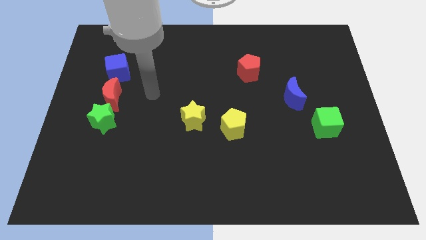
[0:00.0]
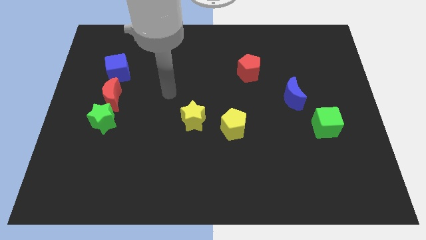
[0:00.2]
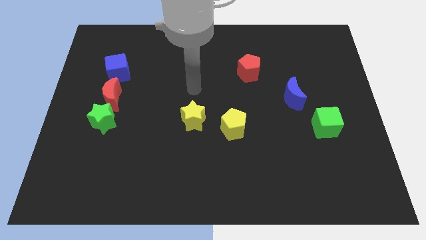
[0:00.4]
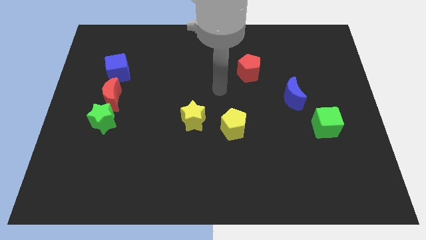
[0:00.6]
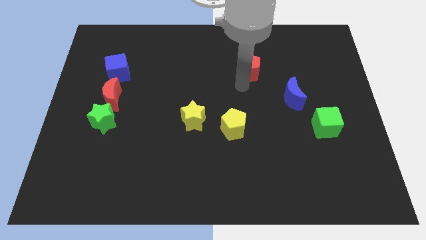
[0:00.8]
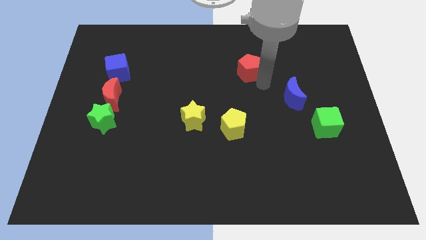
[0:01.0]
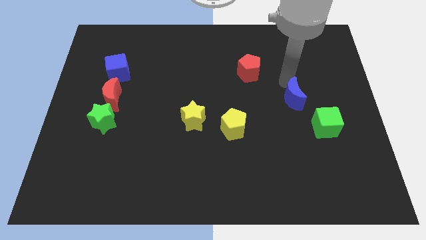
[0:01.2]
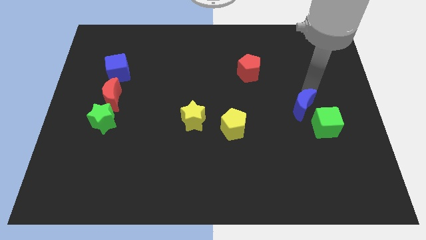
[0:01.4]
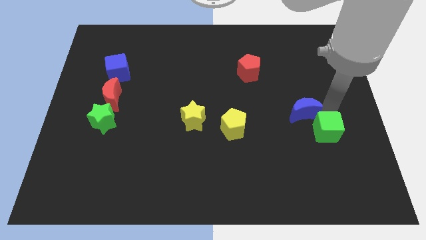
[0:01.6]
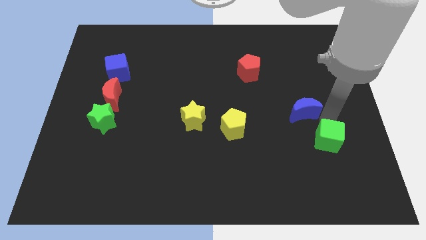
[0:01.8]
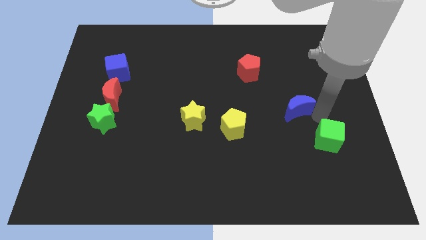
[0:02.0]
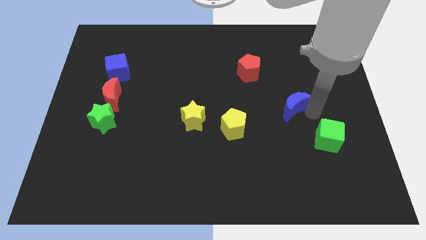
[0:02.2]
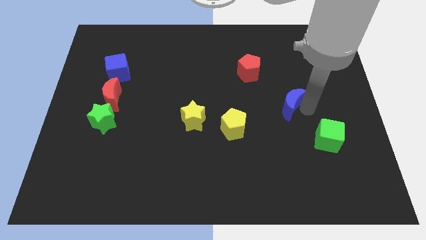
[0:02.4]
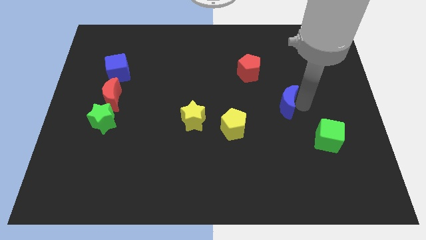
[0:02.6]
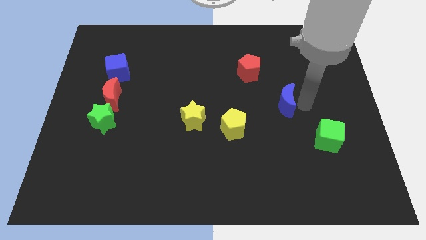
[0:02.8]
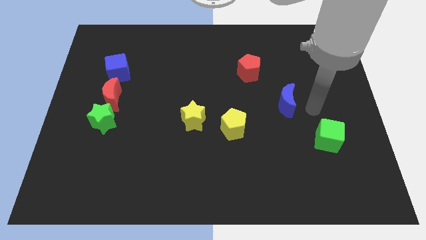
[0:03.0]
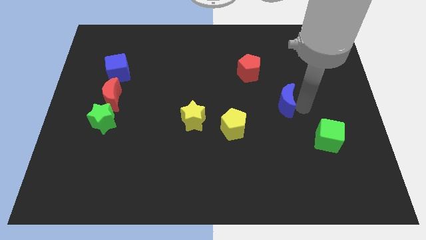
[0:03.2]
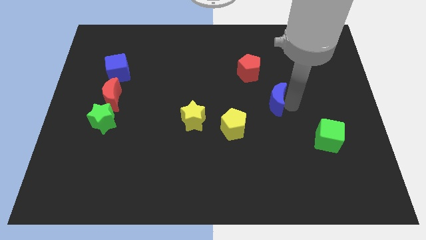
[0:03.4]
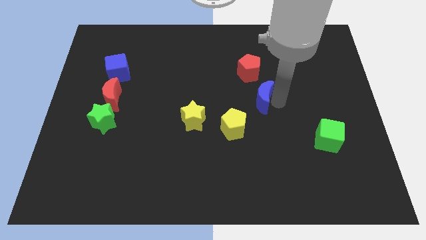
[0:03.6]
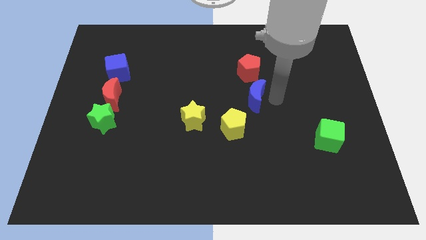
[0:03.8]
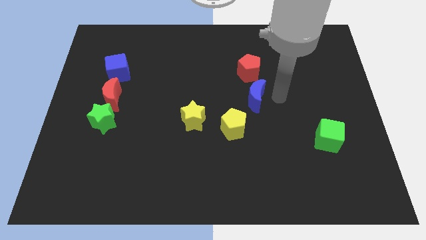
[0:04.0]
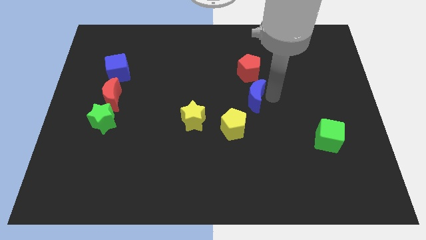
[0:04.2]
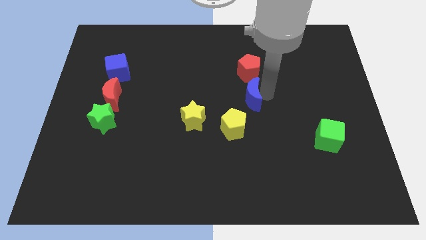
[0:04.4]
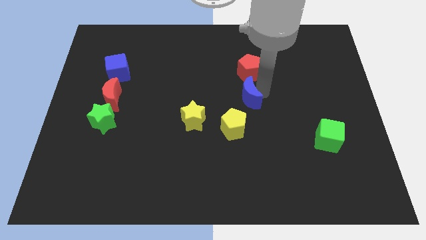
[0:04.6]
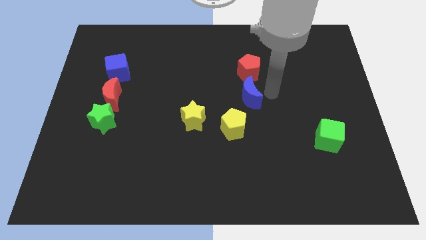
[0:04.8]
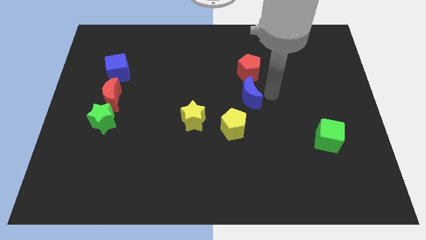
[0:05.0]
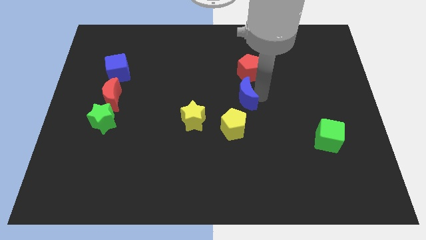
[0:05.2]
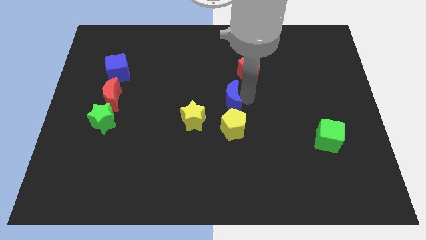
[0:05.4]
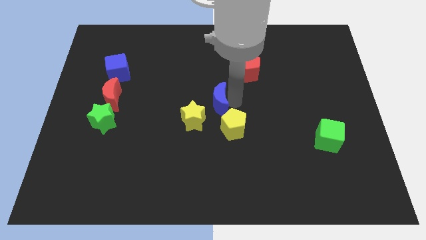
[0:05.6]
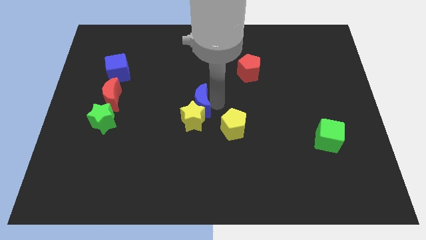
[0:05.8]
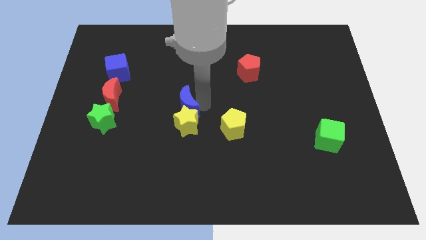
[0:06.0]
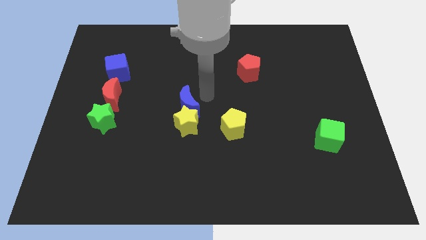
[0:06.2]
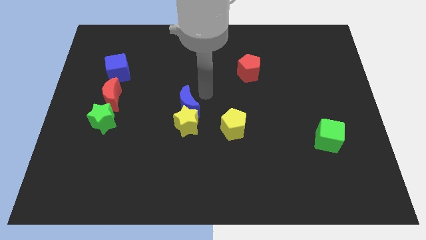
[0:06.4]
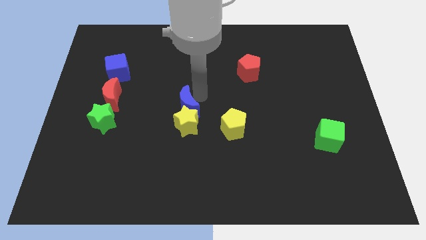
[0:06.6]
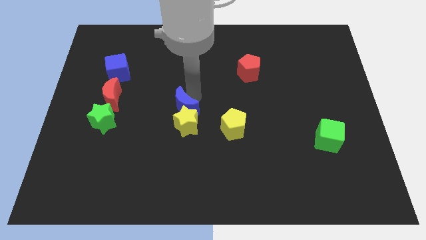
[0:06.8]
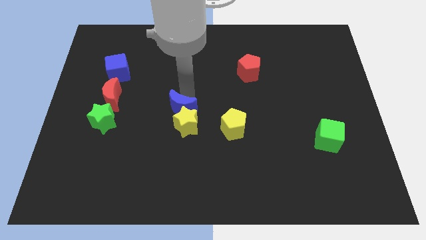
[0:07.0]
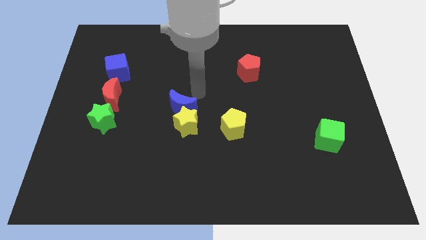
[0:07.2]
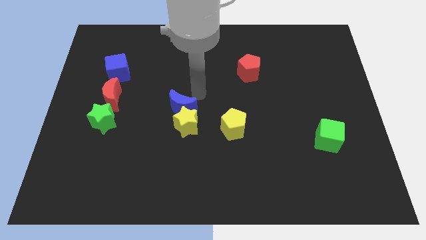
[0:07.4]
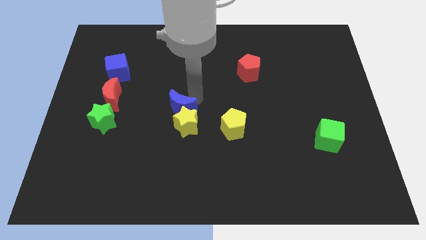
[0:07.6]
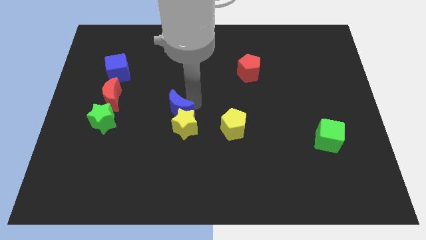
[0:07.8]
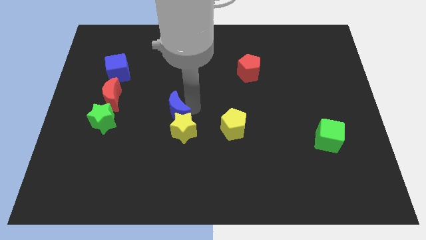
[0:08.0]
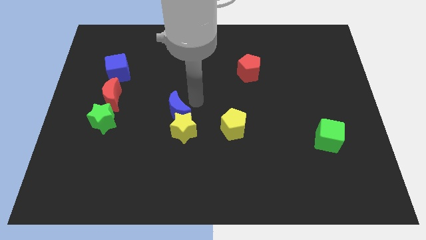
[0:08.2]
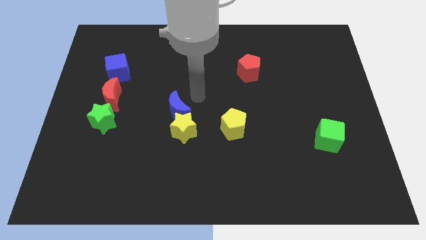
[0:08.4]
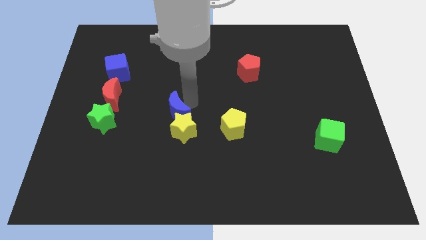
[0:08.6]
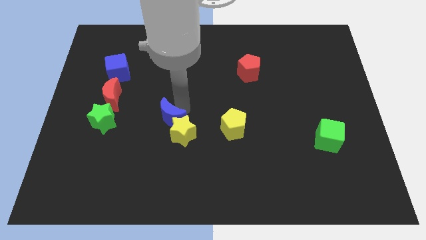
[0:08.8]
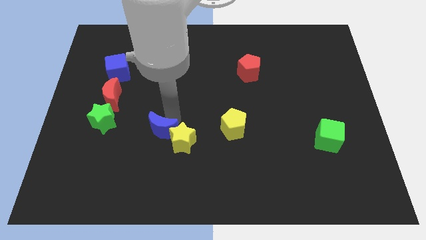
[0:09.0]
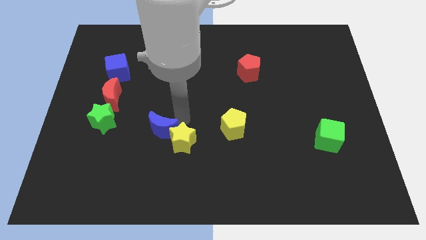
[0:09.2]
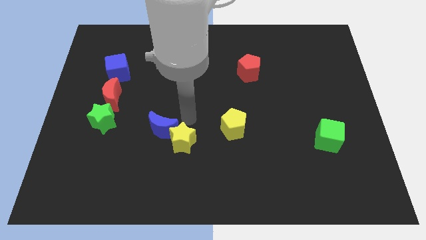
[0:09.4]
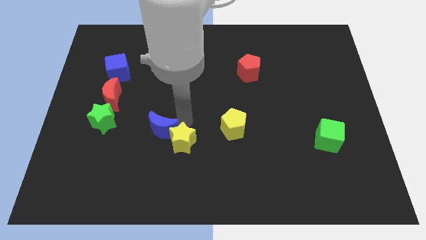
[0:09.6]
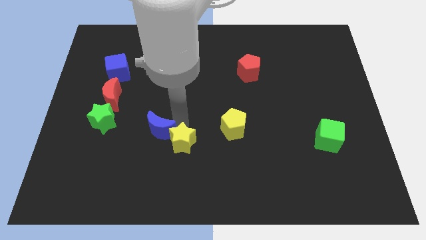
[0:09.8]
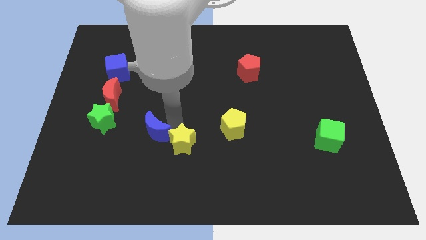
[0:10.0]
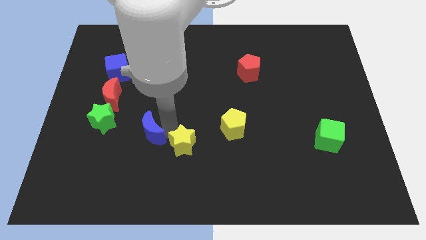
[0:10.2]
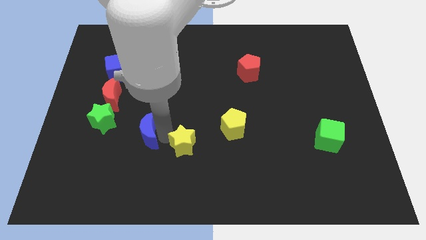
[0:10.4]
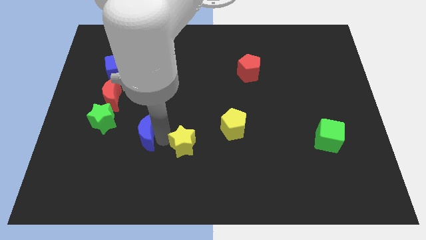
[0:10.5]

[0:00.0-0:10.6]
slide the blue moon to the bottom right side of the green star

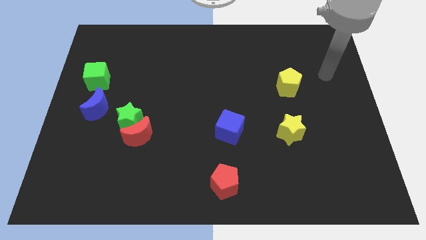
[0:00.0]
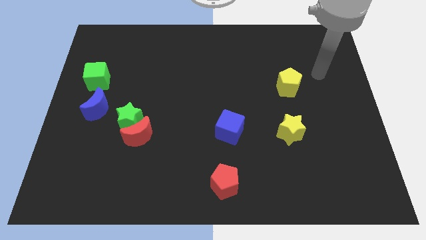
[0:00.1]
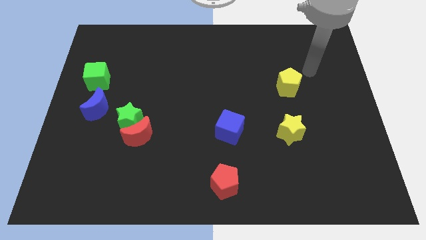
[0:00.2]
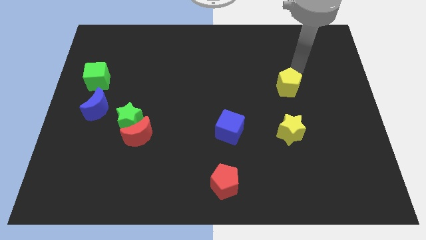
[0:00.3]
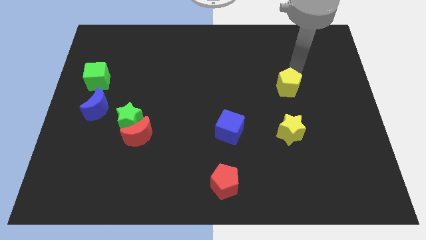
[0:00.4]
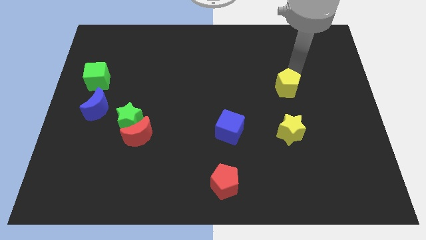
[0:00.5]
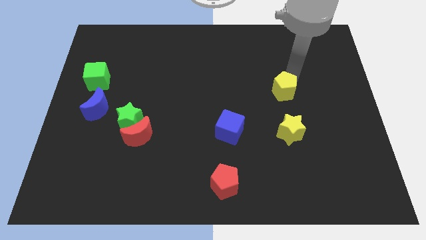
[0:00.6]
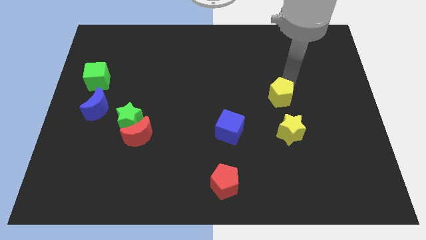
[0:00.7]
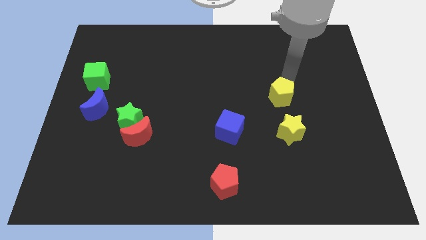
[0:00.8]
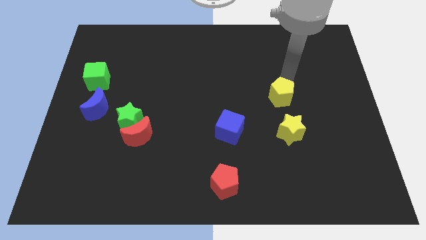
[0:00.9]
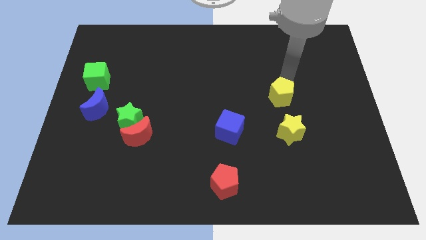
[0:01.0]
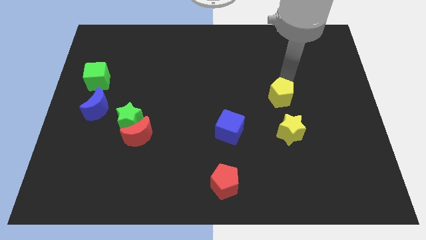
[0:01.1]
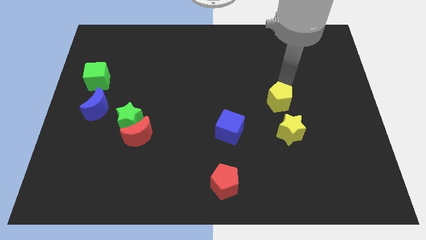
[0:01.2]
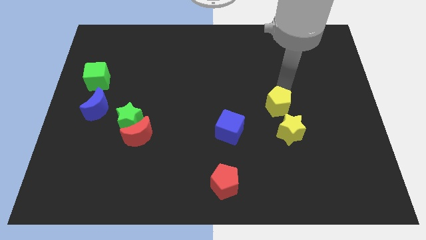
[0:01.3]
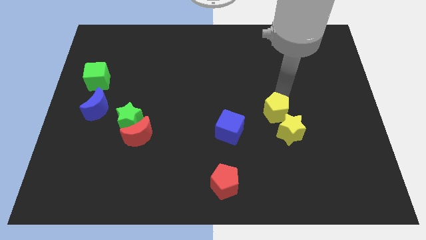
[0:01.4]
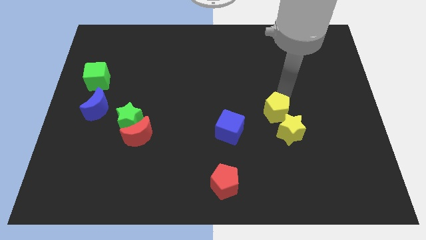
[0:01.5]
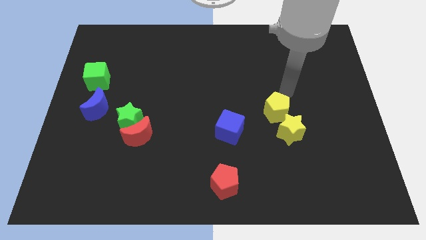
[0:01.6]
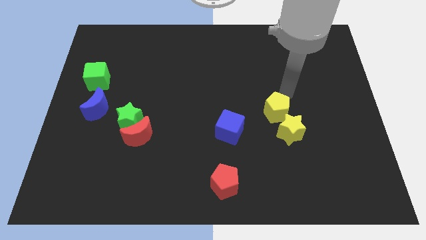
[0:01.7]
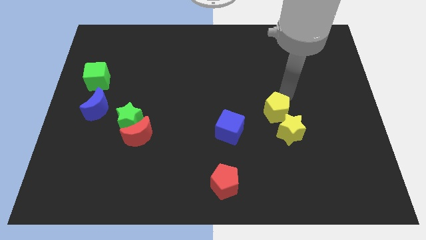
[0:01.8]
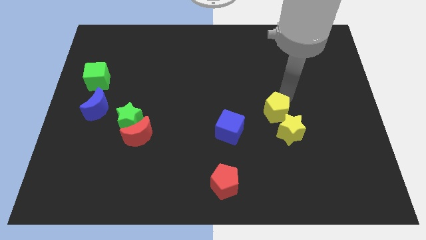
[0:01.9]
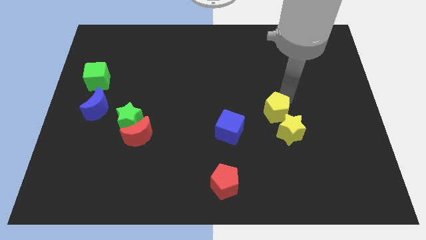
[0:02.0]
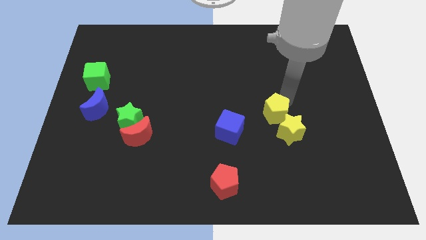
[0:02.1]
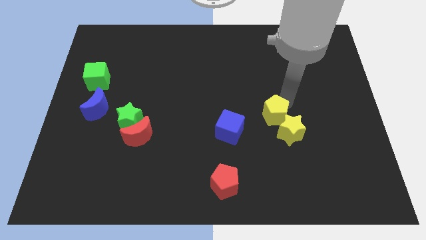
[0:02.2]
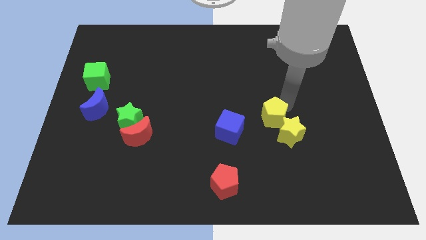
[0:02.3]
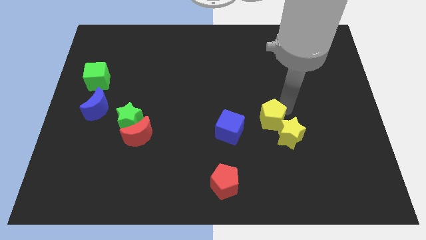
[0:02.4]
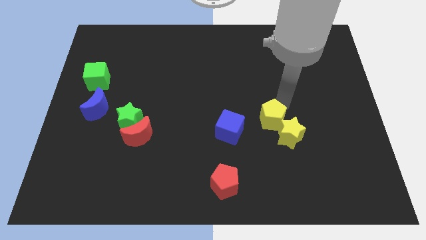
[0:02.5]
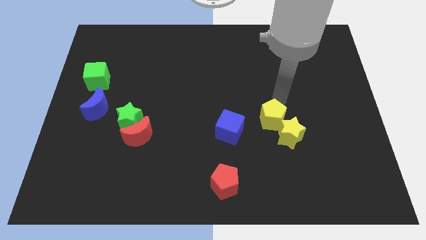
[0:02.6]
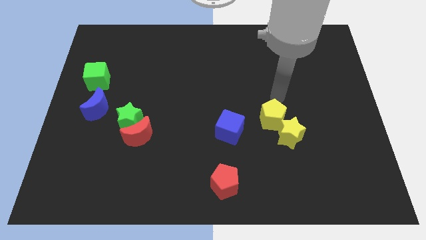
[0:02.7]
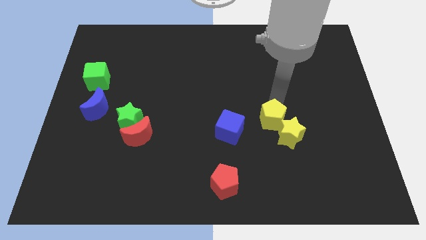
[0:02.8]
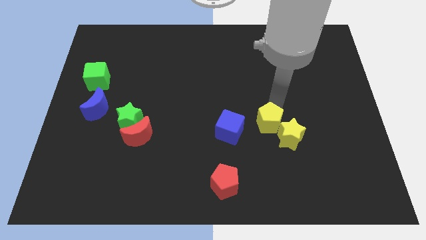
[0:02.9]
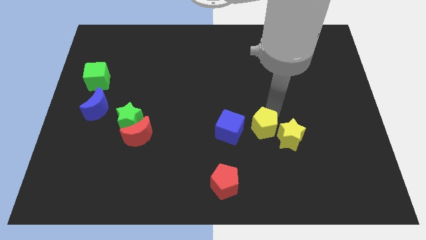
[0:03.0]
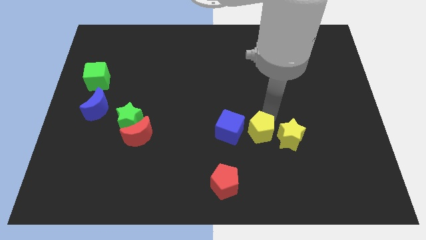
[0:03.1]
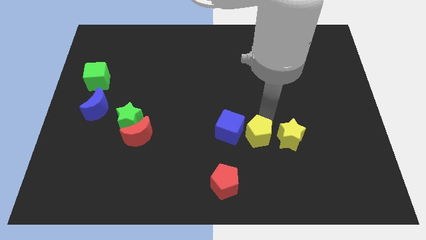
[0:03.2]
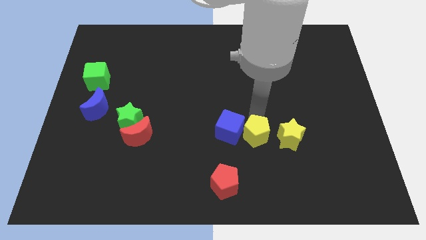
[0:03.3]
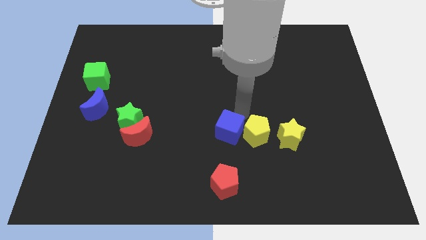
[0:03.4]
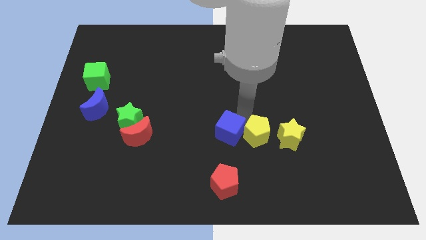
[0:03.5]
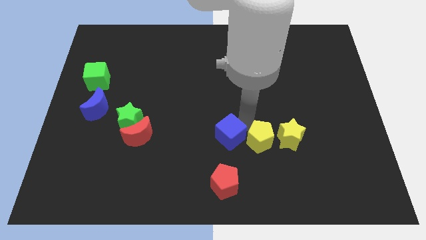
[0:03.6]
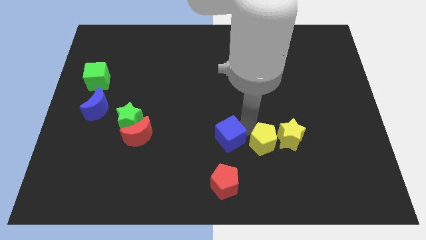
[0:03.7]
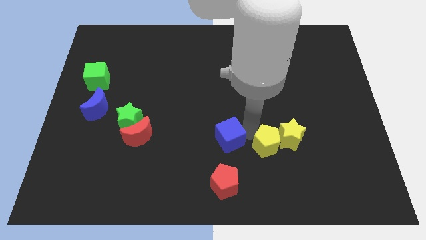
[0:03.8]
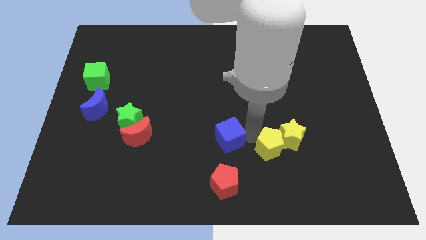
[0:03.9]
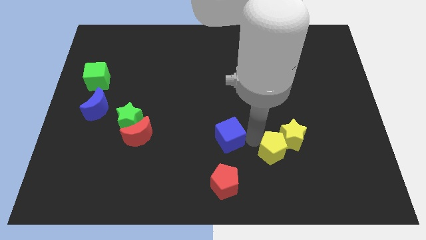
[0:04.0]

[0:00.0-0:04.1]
move the yellow pentagon below the yellow star
